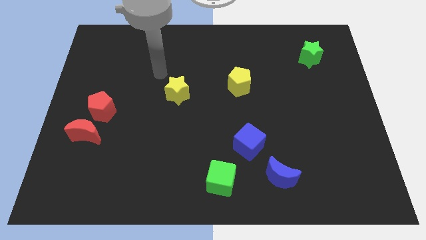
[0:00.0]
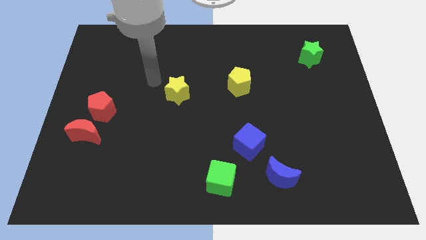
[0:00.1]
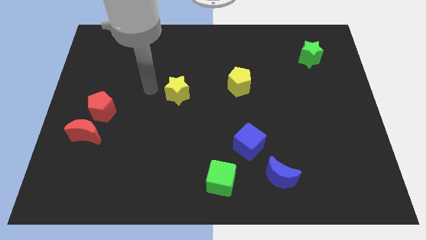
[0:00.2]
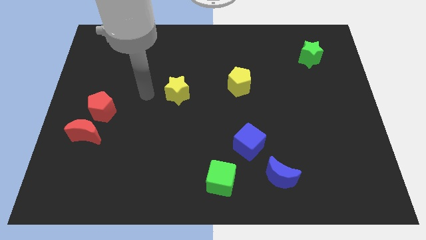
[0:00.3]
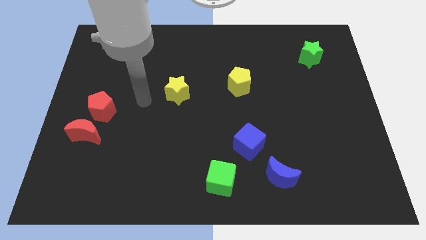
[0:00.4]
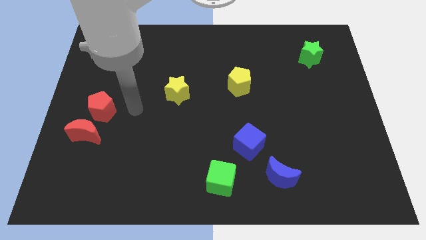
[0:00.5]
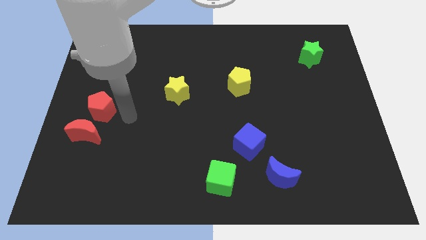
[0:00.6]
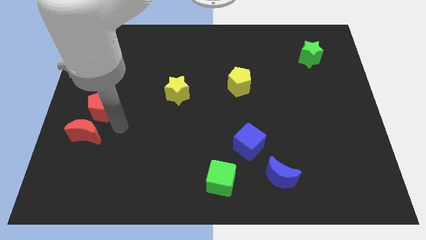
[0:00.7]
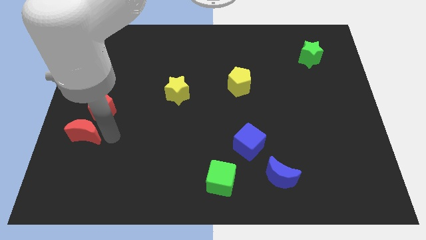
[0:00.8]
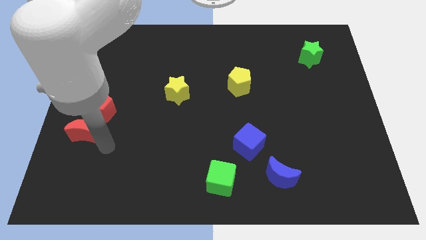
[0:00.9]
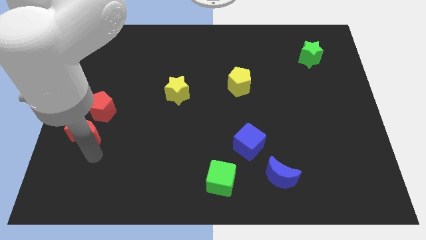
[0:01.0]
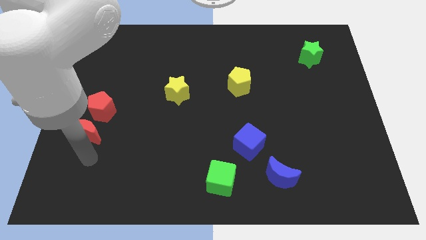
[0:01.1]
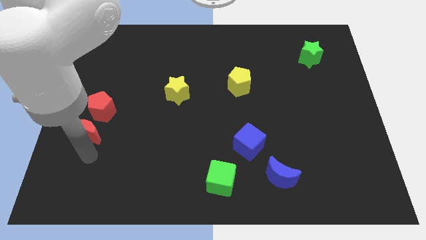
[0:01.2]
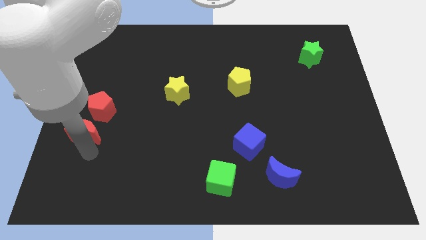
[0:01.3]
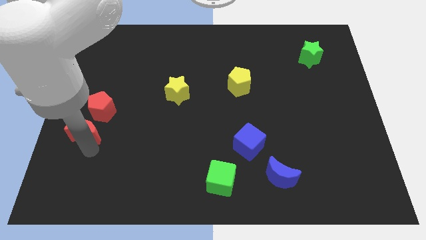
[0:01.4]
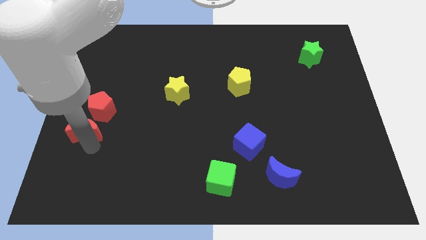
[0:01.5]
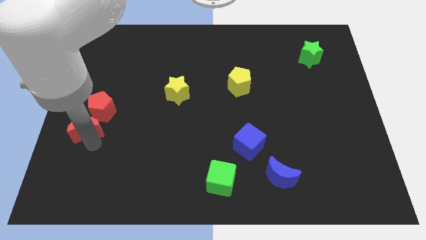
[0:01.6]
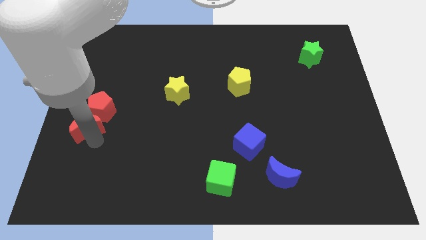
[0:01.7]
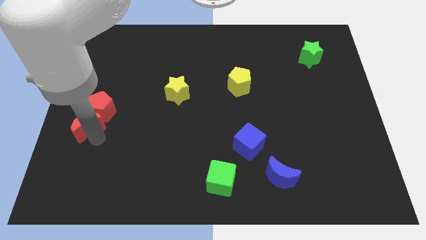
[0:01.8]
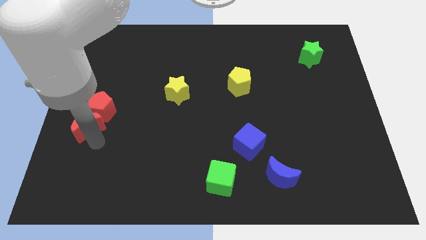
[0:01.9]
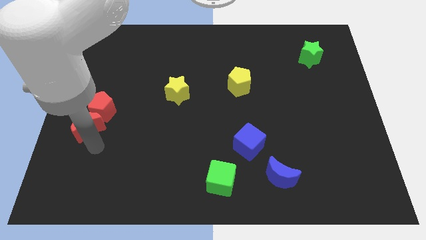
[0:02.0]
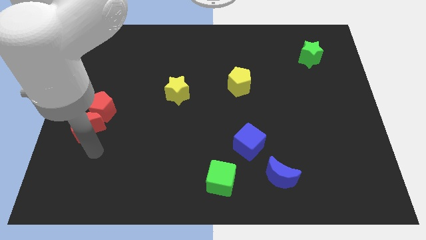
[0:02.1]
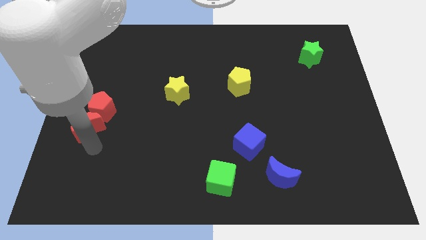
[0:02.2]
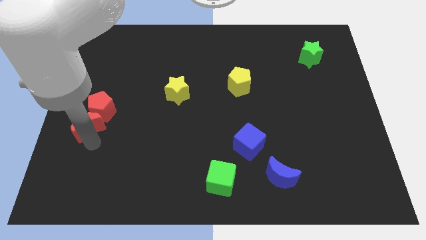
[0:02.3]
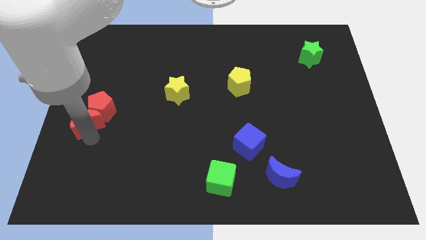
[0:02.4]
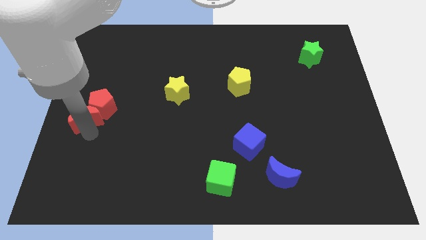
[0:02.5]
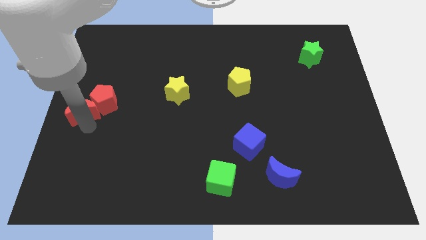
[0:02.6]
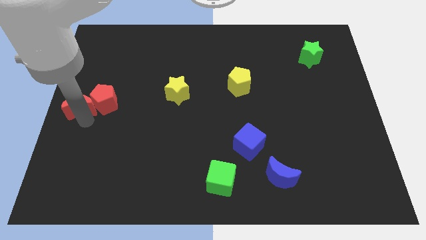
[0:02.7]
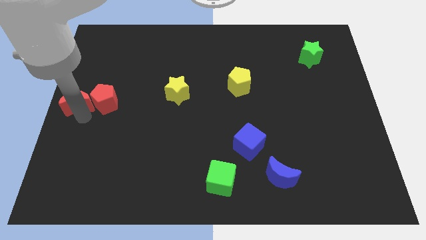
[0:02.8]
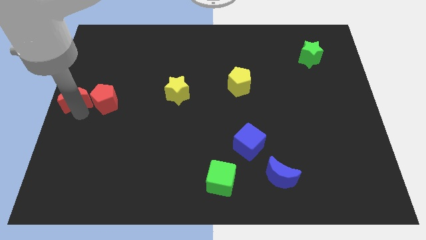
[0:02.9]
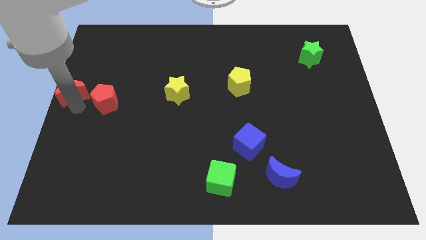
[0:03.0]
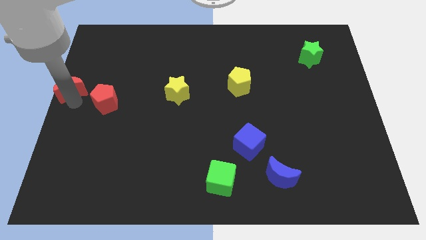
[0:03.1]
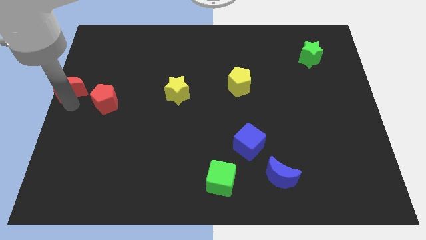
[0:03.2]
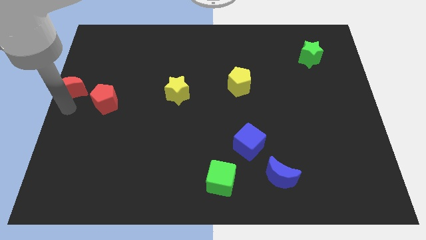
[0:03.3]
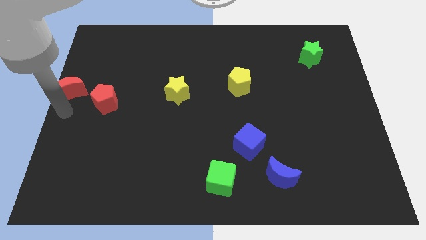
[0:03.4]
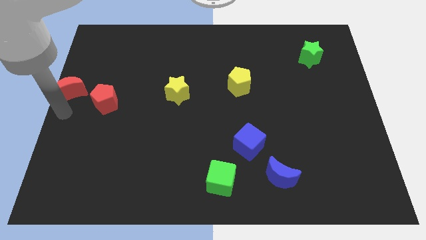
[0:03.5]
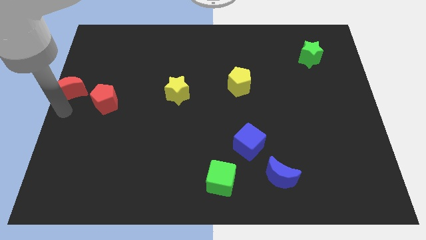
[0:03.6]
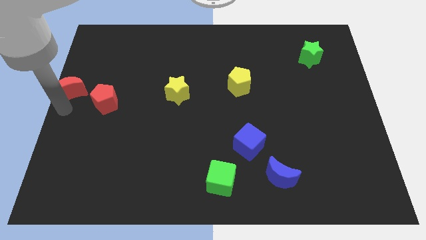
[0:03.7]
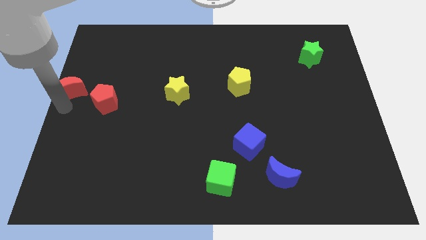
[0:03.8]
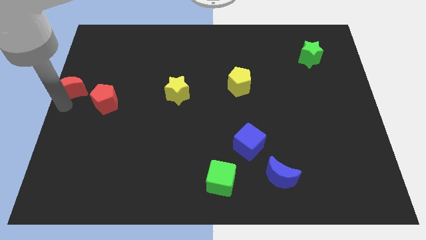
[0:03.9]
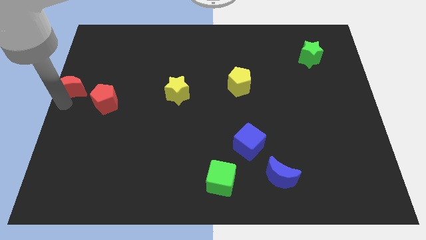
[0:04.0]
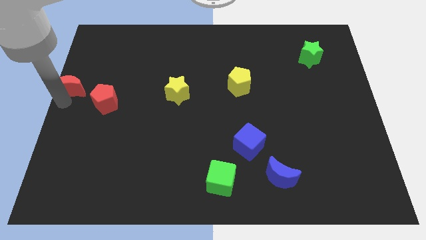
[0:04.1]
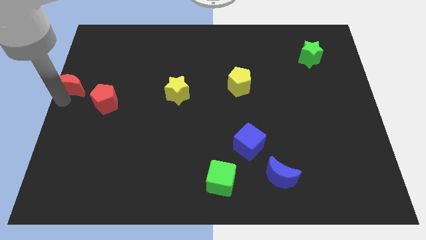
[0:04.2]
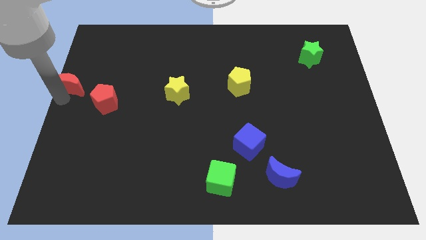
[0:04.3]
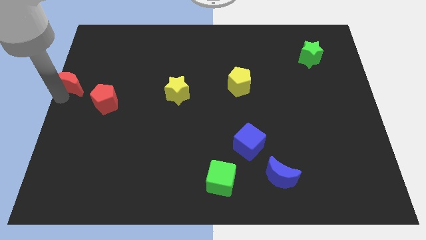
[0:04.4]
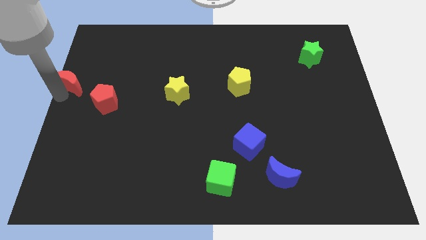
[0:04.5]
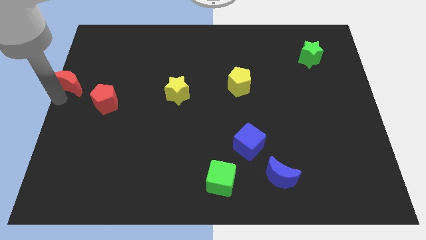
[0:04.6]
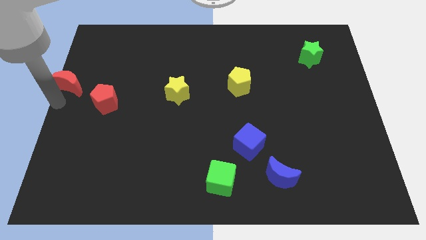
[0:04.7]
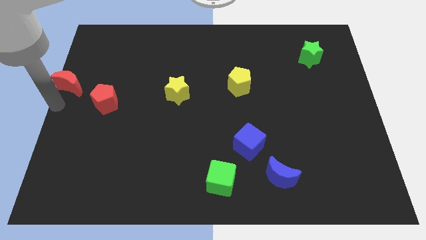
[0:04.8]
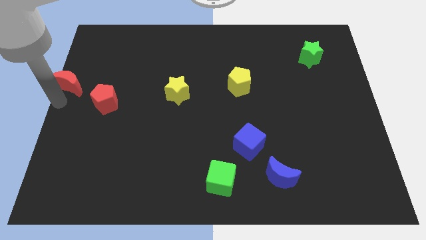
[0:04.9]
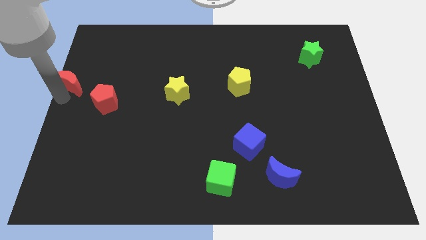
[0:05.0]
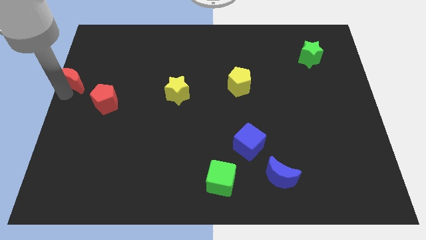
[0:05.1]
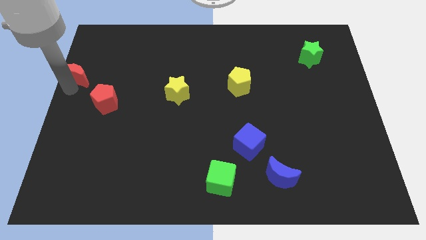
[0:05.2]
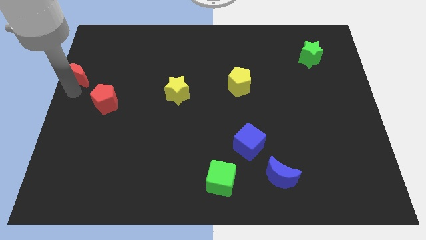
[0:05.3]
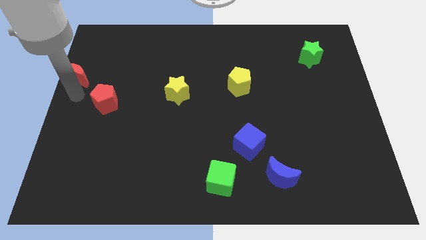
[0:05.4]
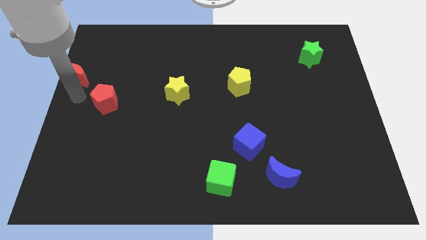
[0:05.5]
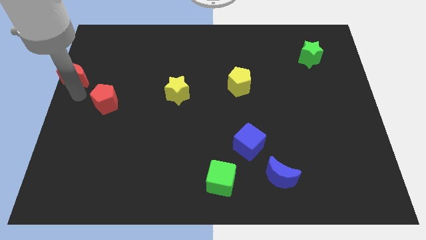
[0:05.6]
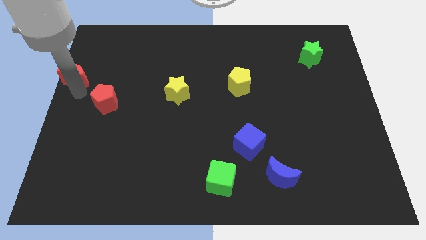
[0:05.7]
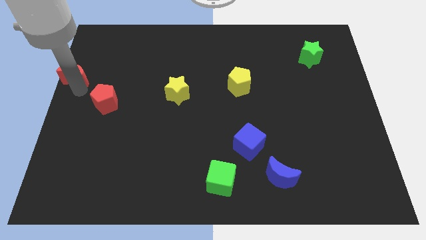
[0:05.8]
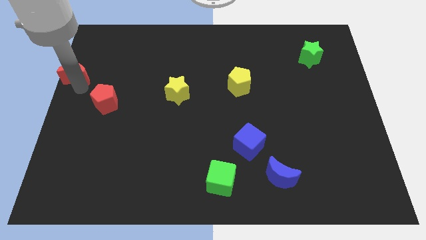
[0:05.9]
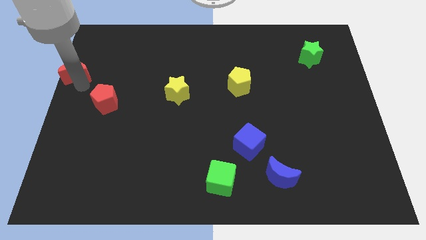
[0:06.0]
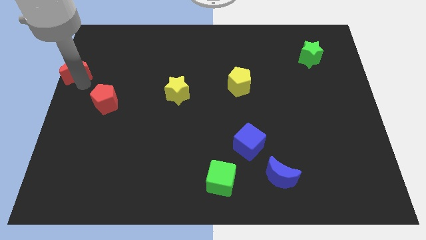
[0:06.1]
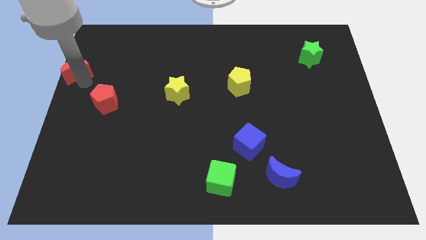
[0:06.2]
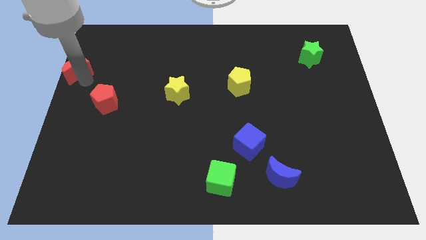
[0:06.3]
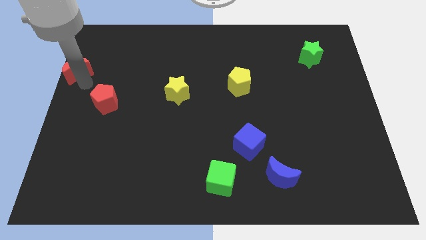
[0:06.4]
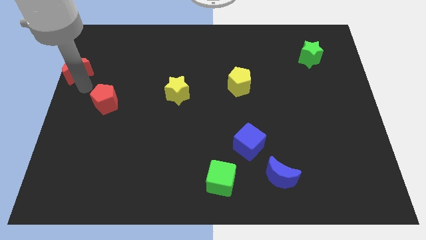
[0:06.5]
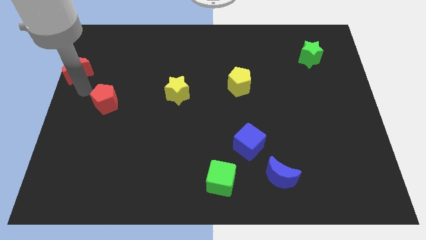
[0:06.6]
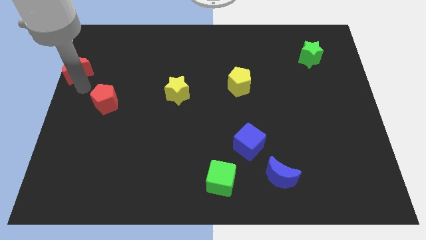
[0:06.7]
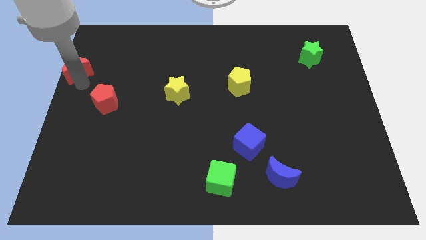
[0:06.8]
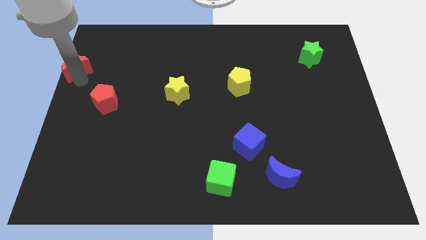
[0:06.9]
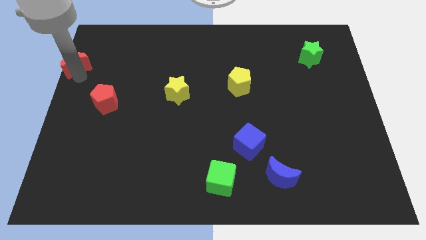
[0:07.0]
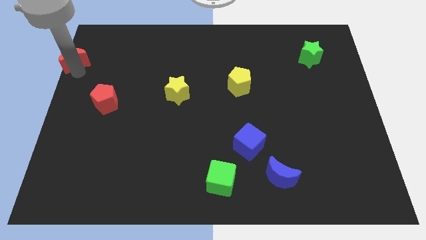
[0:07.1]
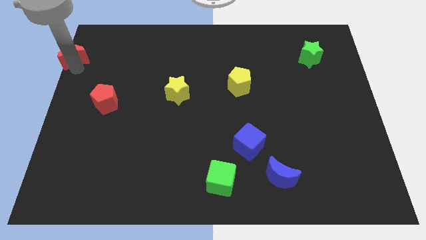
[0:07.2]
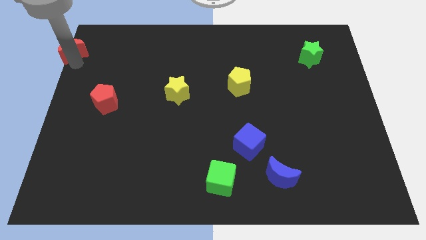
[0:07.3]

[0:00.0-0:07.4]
move the red moon to the top left corner
